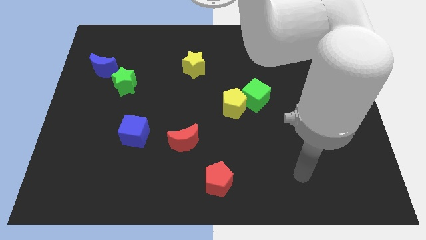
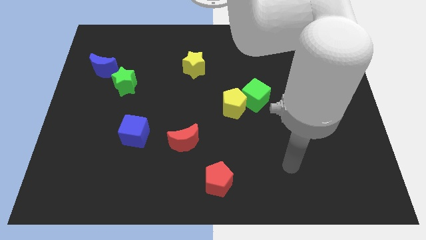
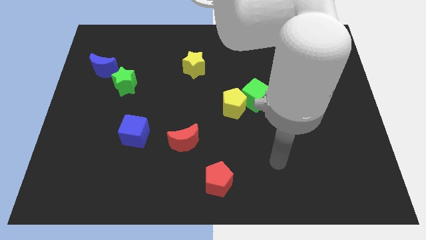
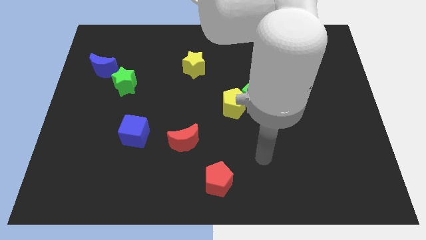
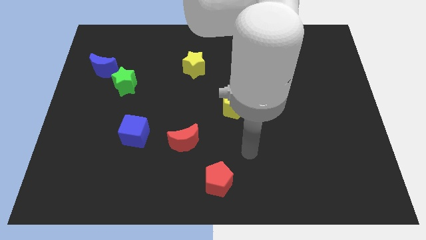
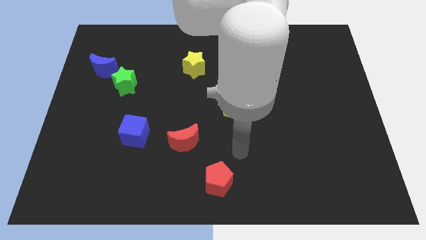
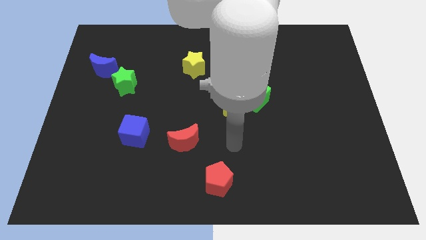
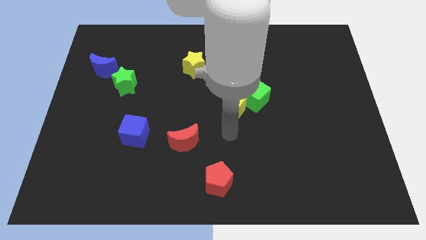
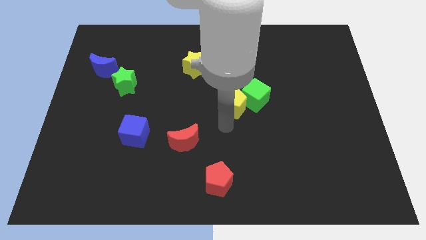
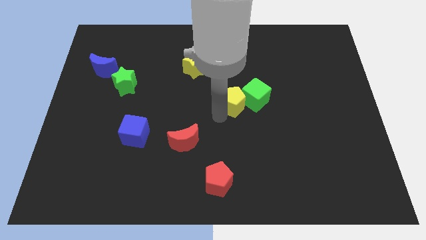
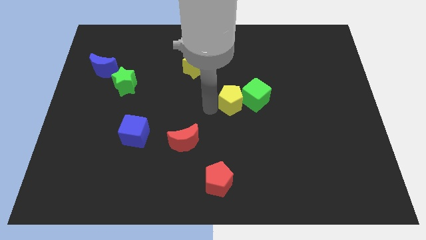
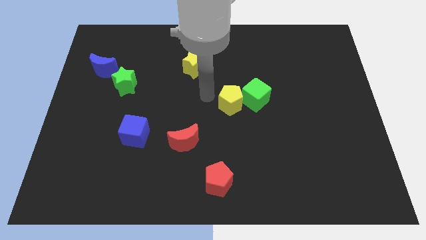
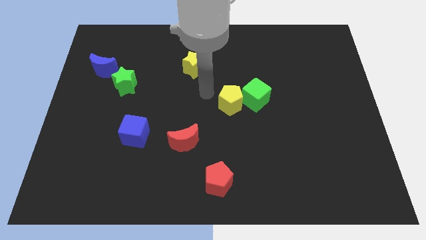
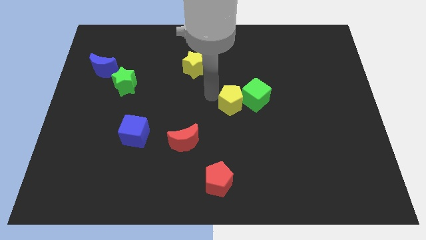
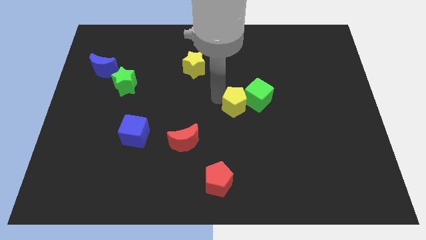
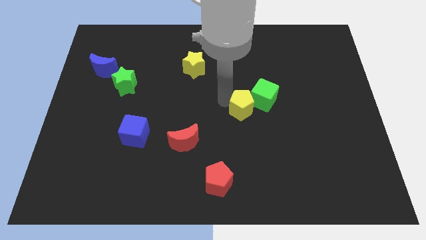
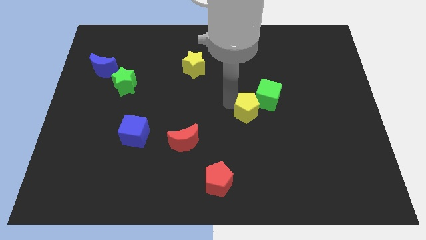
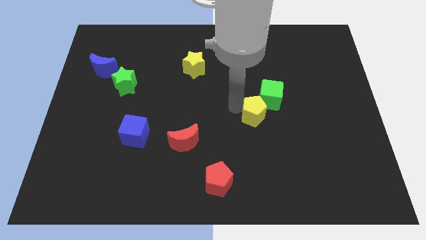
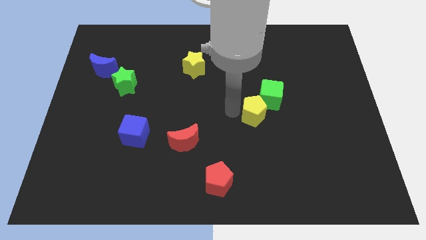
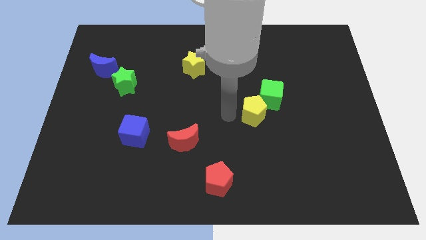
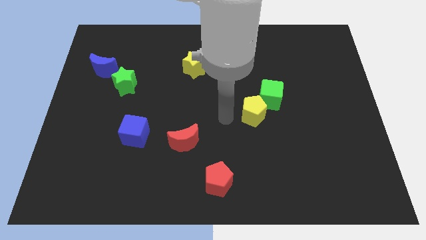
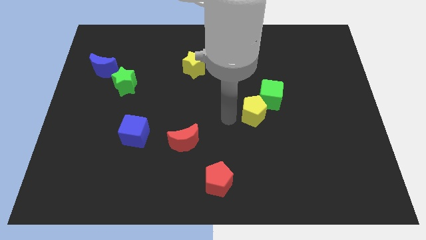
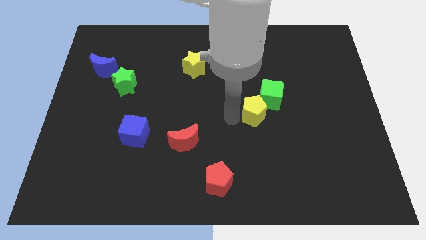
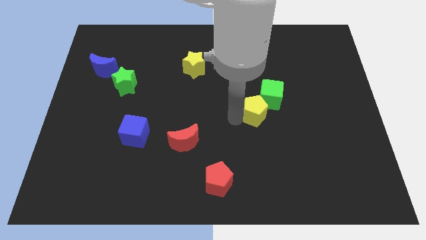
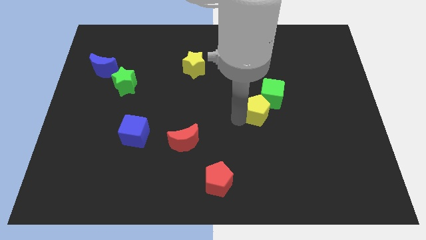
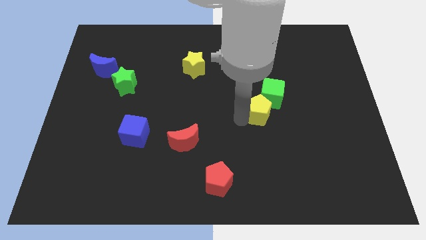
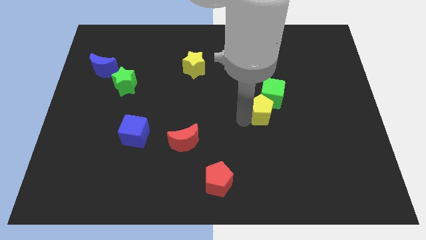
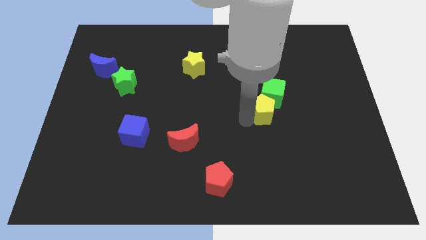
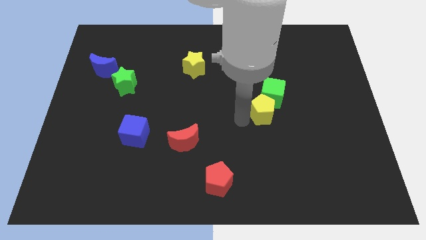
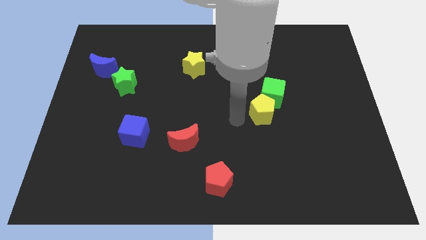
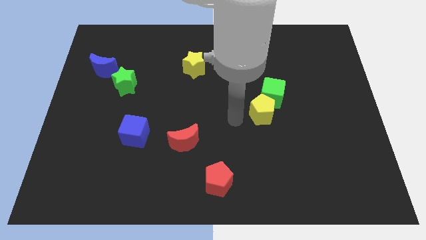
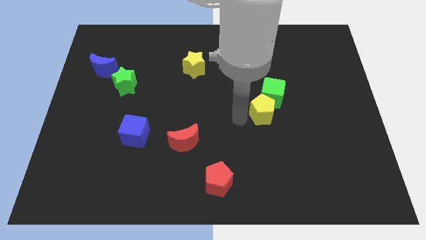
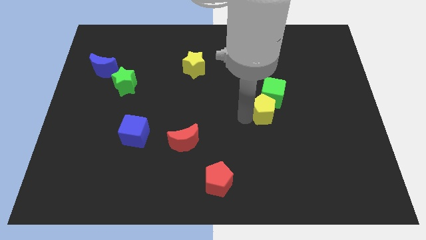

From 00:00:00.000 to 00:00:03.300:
push the yellow pentagon slightly right

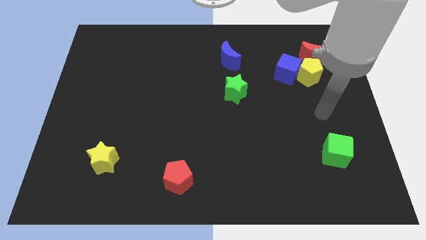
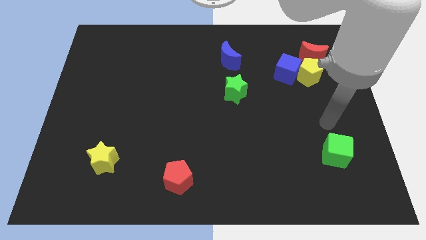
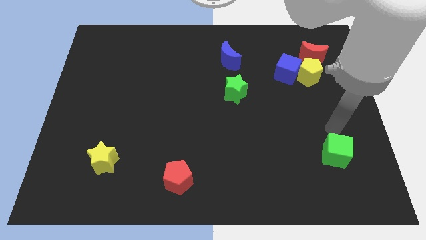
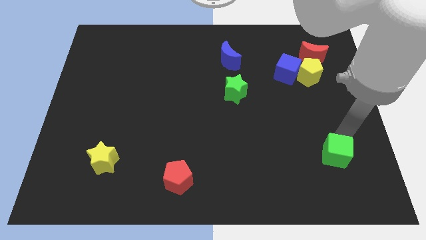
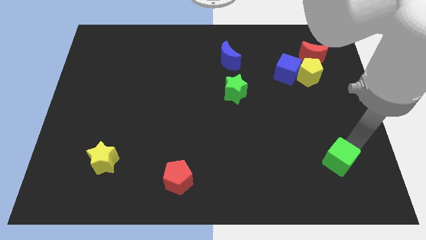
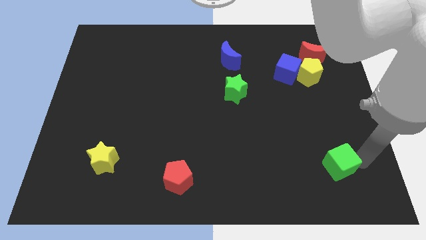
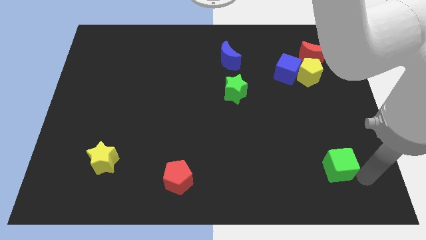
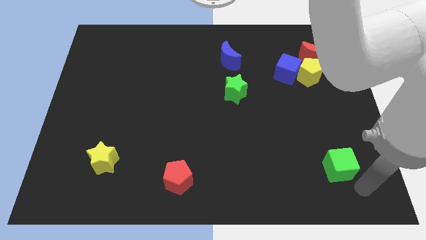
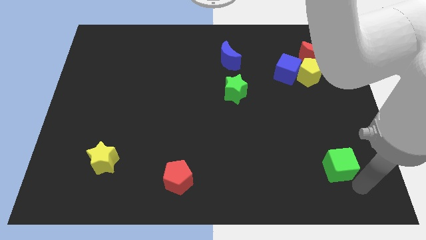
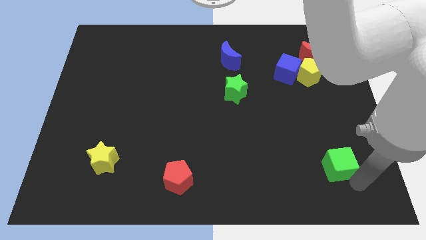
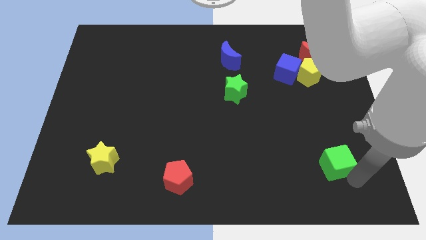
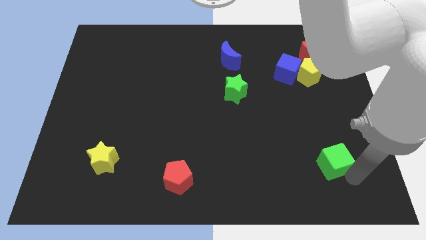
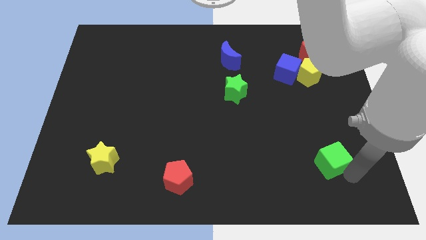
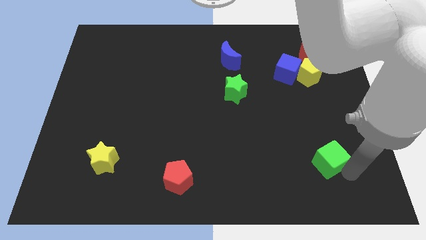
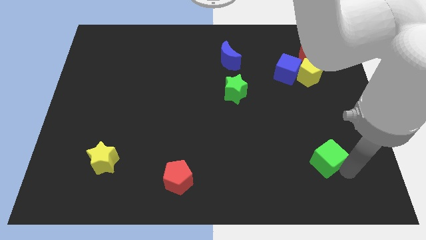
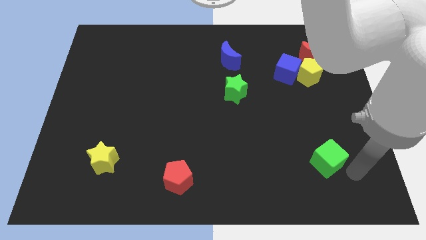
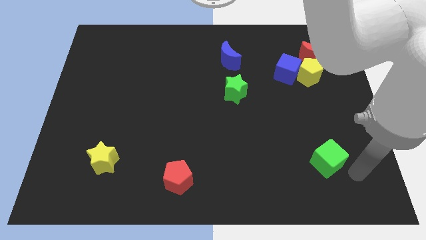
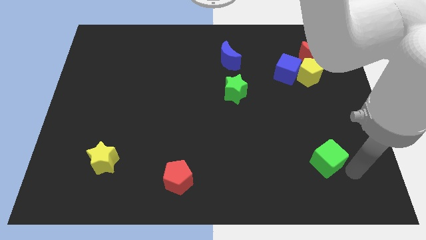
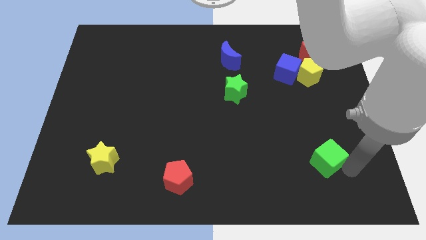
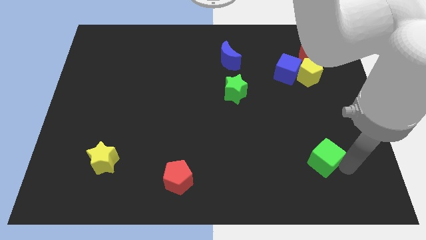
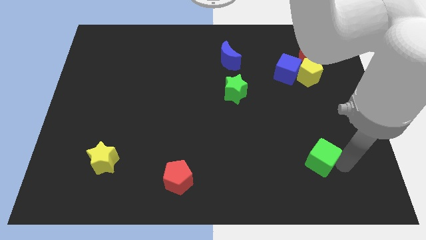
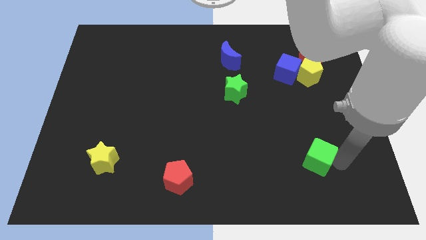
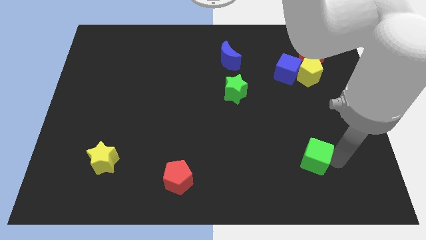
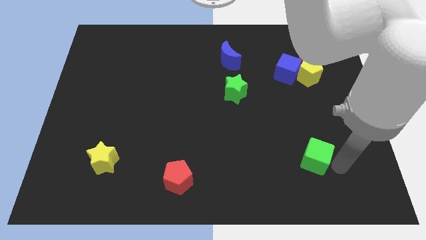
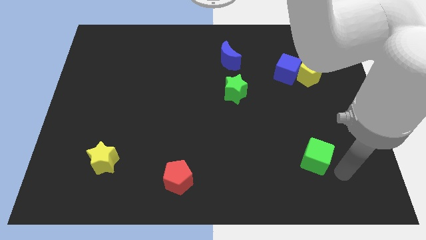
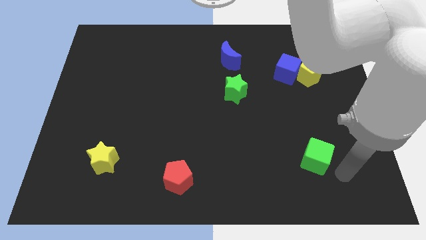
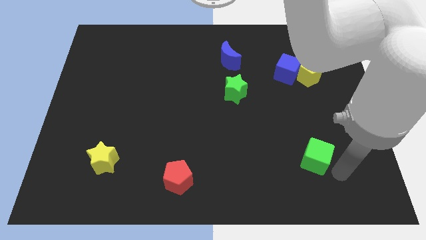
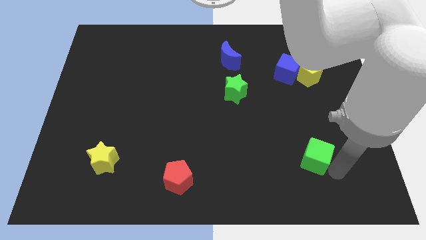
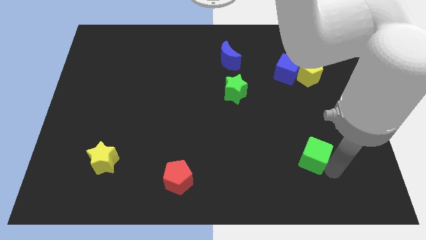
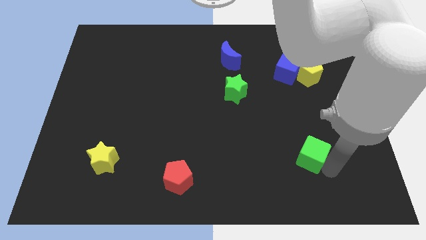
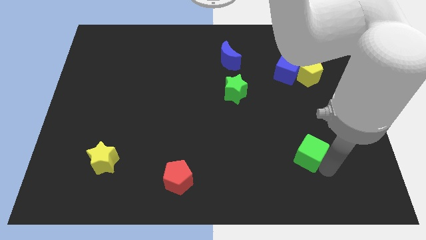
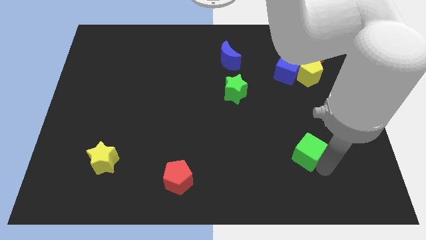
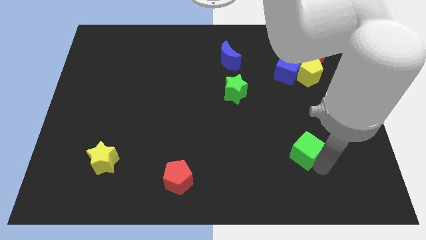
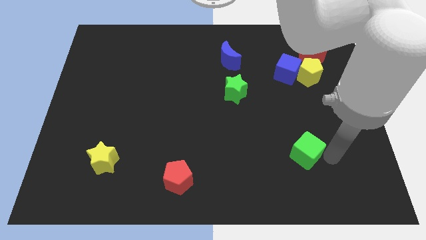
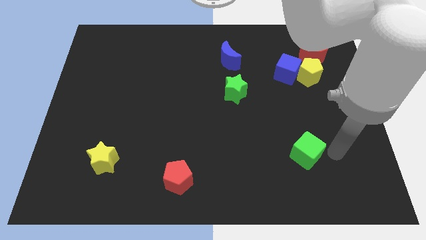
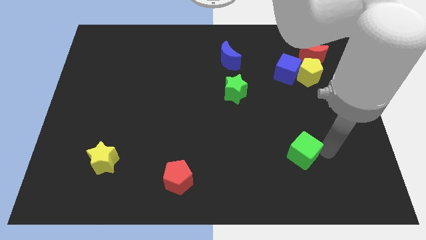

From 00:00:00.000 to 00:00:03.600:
slide the green cube left slightly

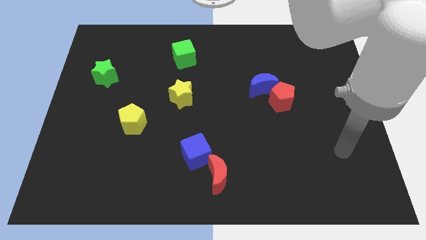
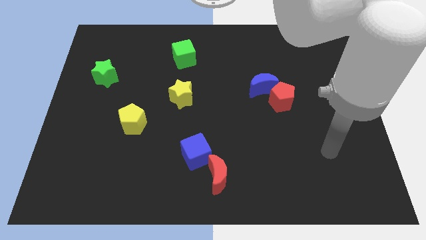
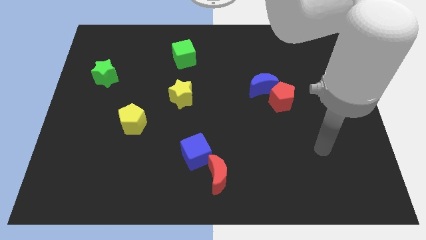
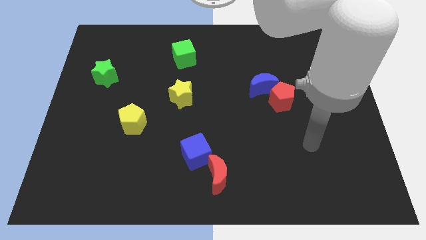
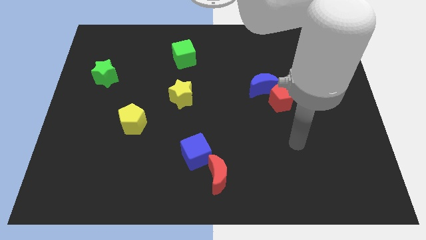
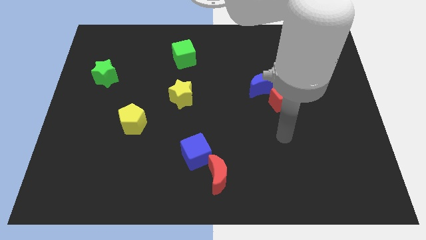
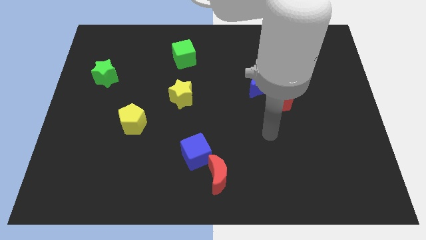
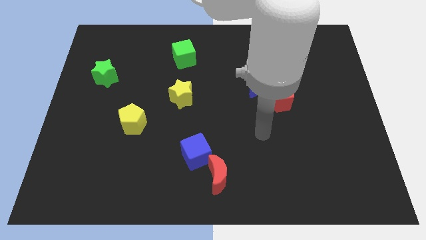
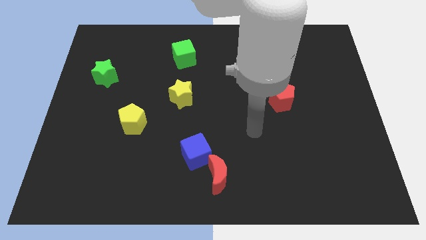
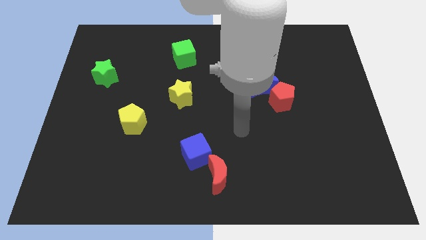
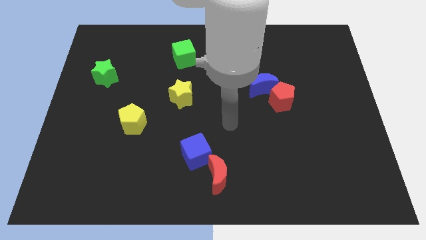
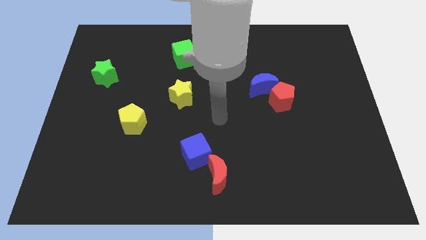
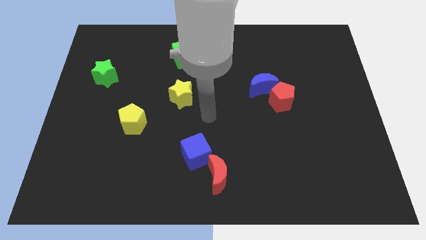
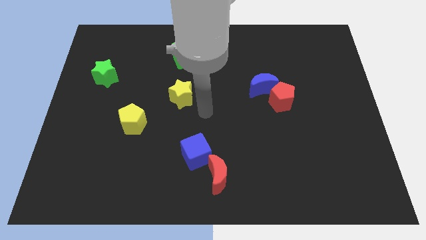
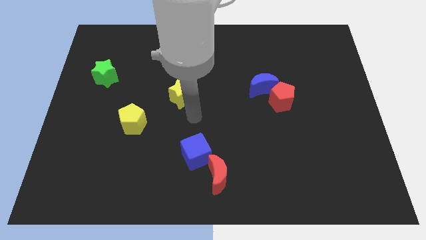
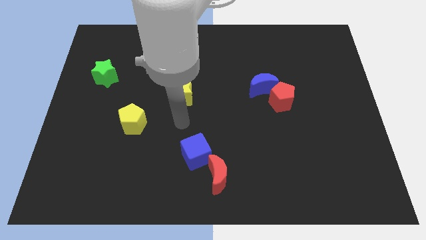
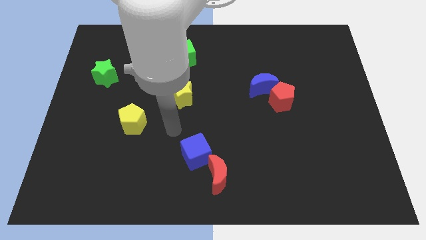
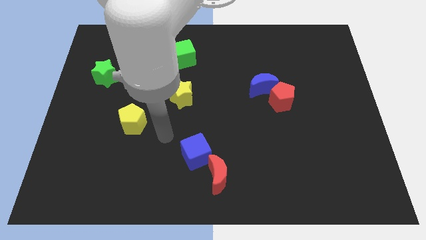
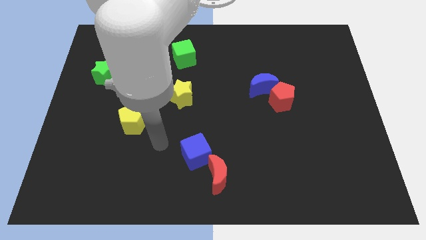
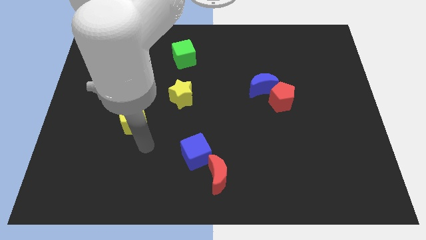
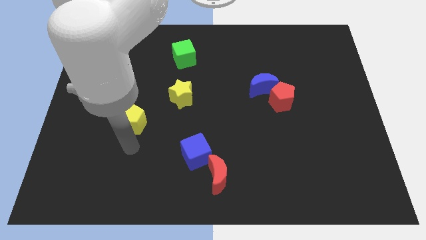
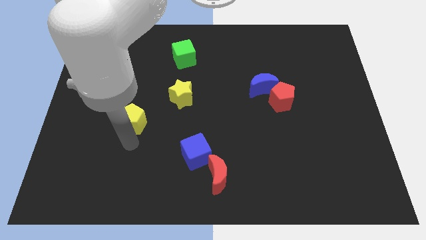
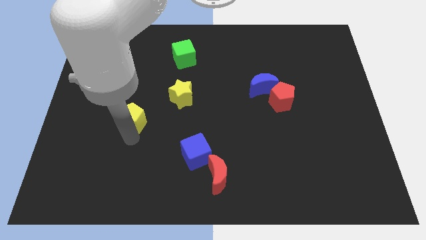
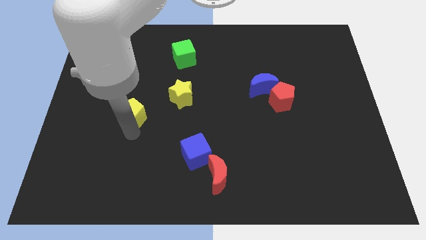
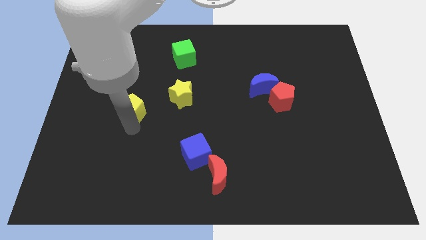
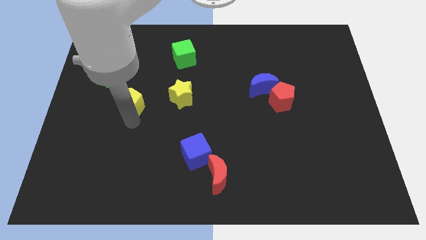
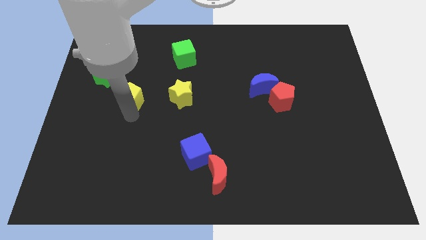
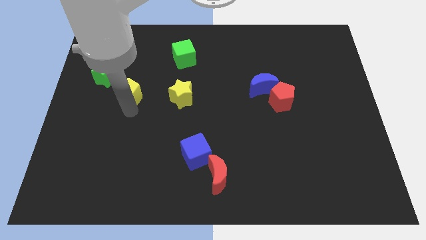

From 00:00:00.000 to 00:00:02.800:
slightly slide the yellow pentagon up
